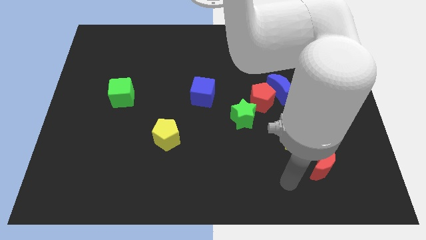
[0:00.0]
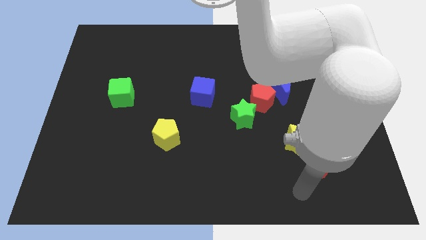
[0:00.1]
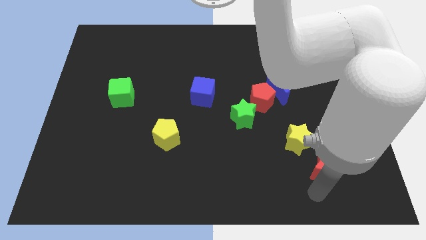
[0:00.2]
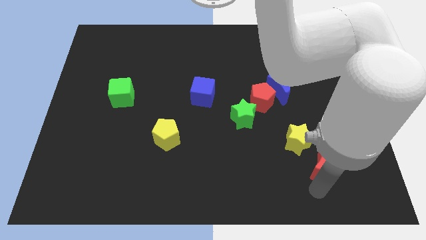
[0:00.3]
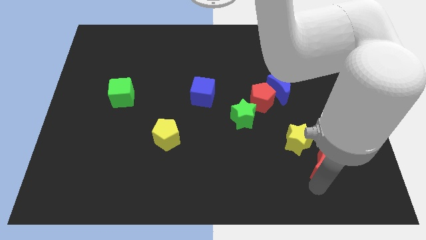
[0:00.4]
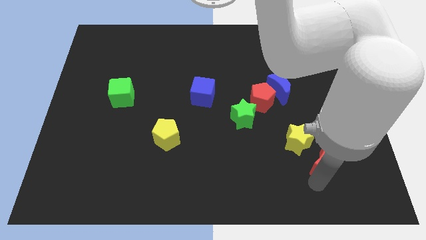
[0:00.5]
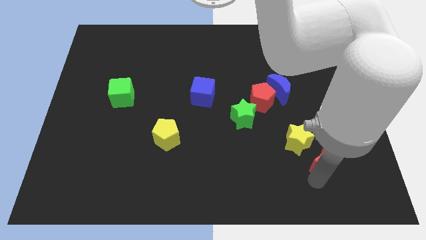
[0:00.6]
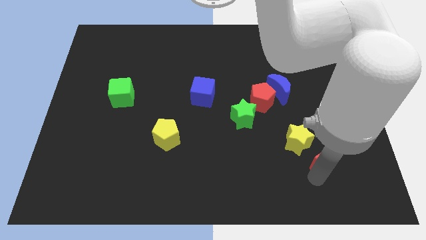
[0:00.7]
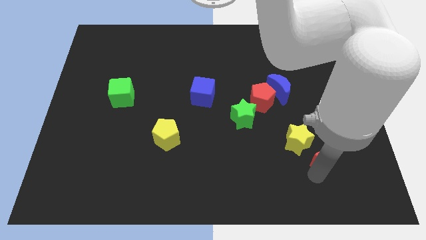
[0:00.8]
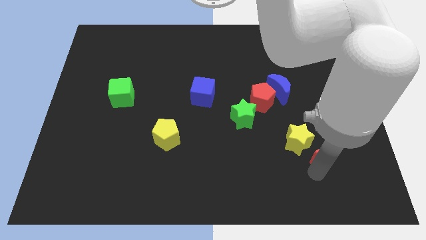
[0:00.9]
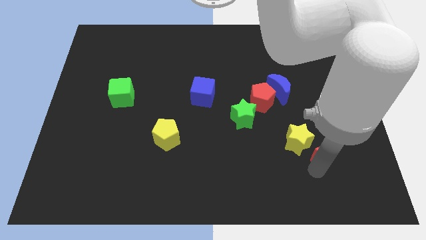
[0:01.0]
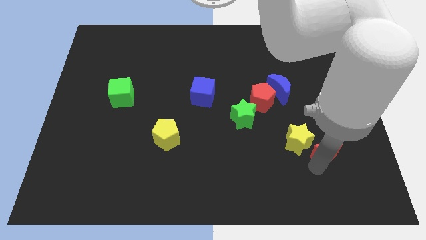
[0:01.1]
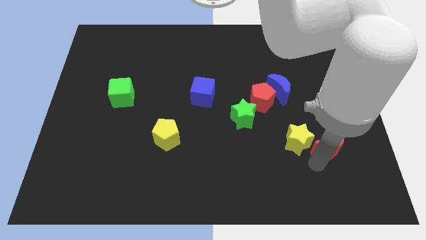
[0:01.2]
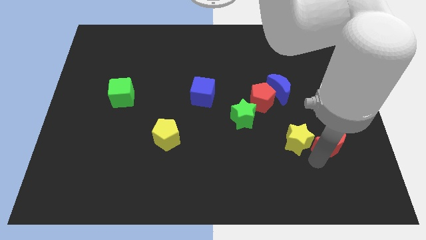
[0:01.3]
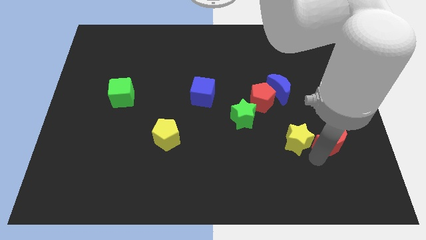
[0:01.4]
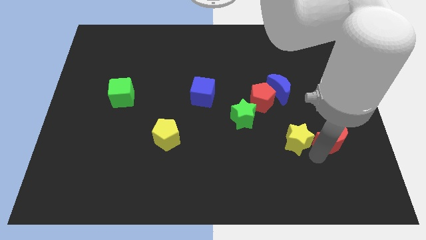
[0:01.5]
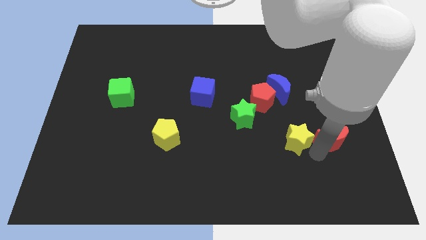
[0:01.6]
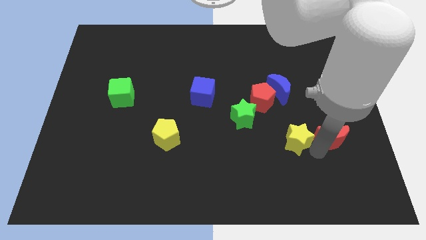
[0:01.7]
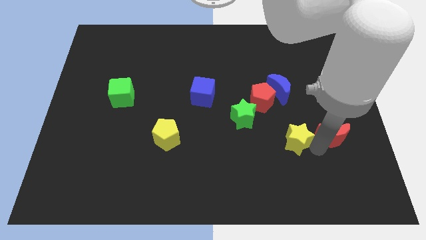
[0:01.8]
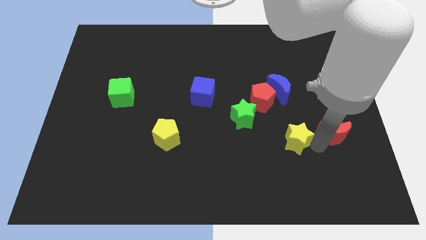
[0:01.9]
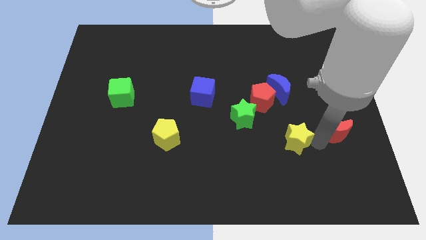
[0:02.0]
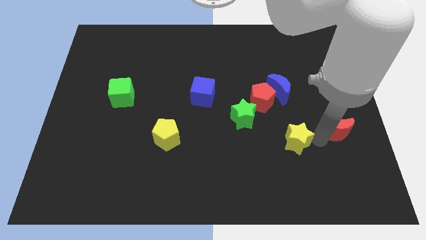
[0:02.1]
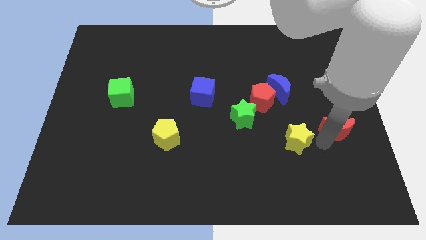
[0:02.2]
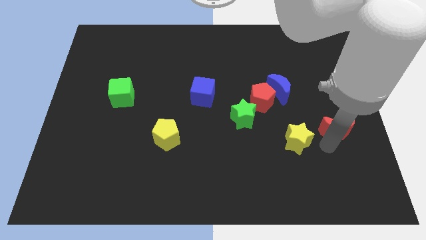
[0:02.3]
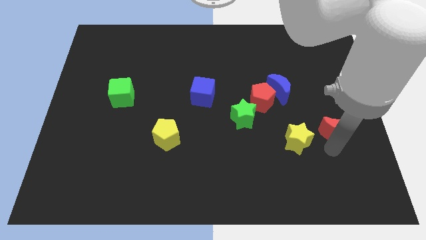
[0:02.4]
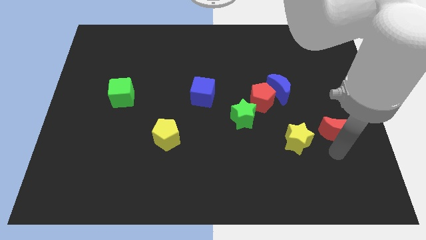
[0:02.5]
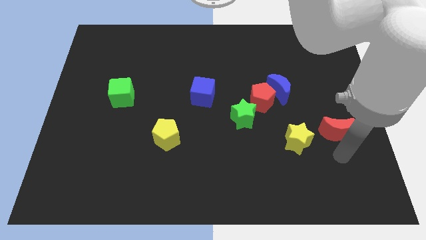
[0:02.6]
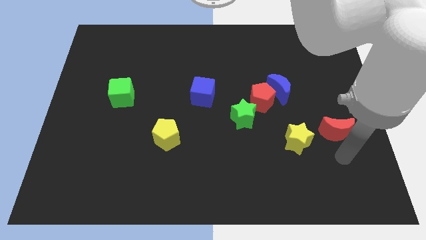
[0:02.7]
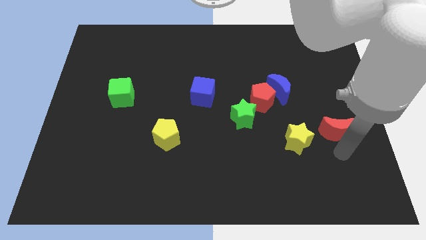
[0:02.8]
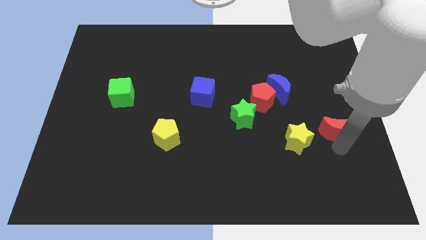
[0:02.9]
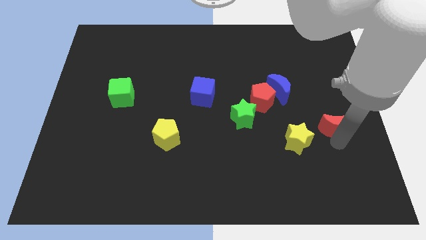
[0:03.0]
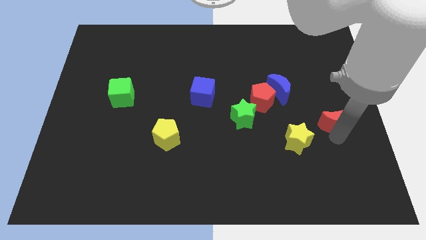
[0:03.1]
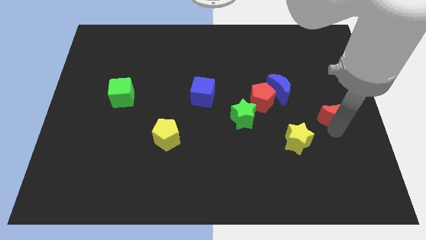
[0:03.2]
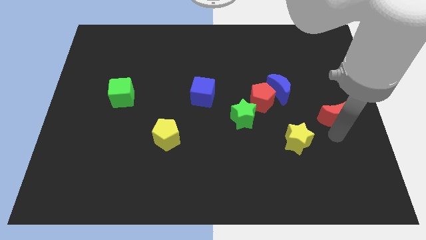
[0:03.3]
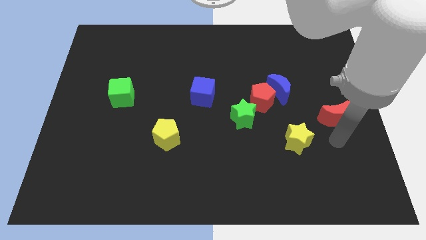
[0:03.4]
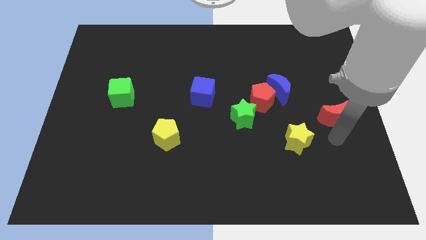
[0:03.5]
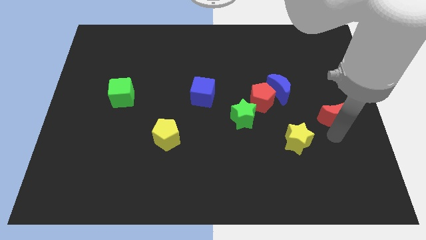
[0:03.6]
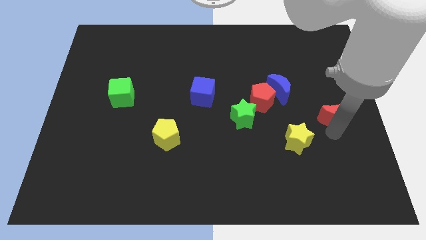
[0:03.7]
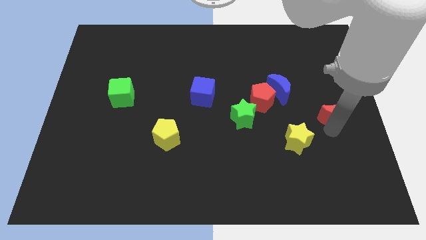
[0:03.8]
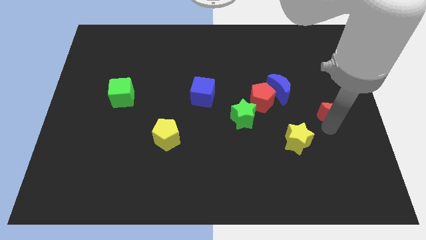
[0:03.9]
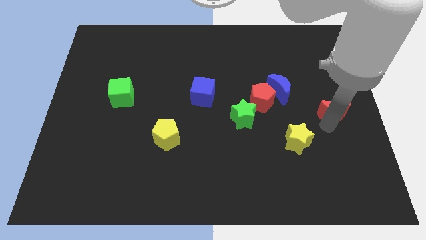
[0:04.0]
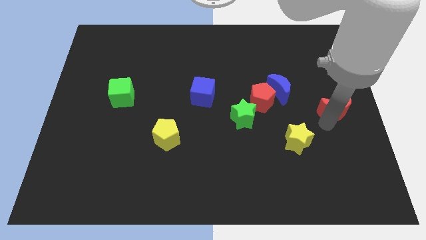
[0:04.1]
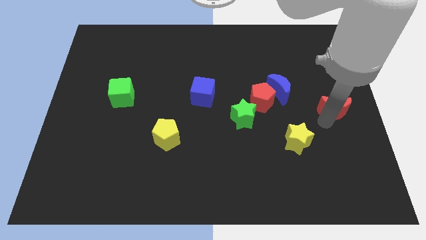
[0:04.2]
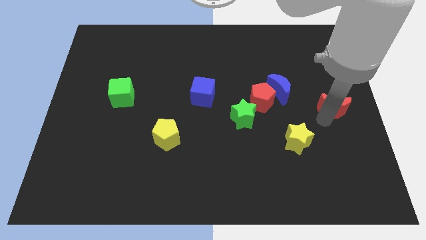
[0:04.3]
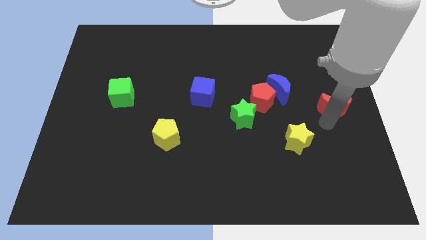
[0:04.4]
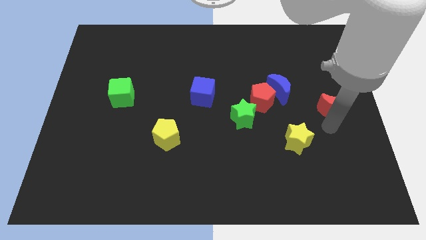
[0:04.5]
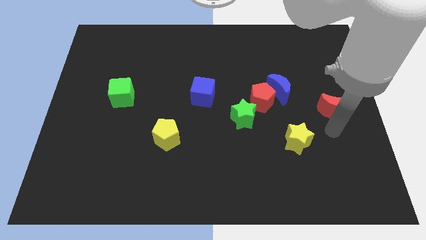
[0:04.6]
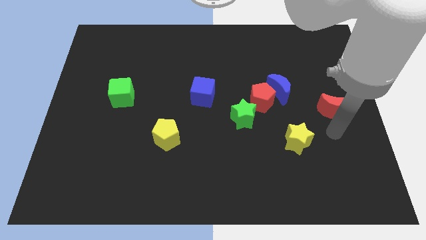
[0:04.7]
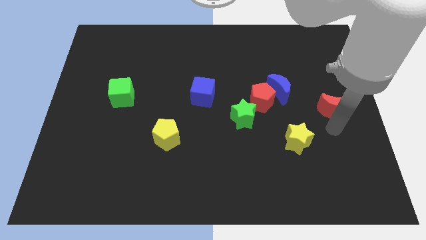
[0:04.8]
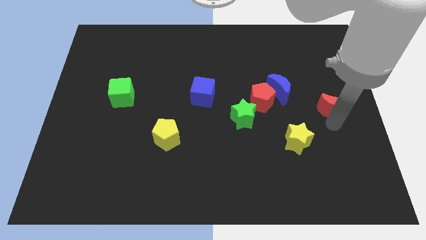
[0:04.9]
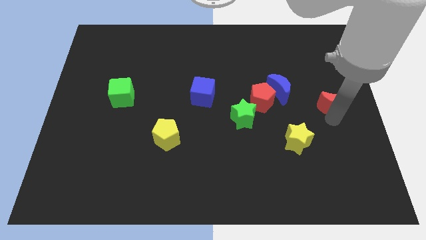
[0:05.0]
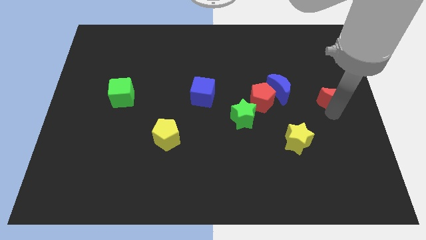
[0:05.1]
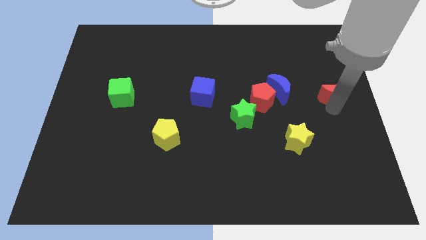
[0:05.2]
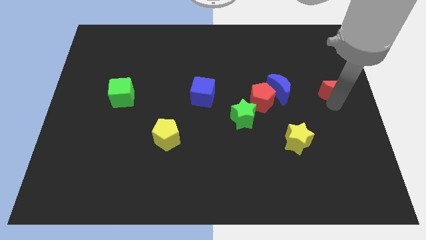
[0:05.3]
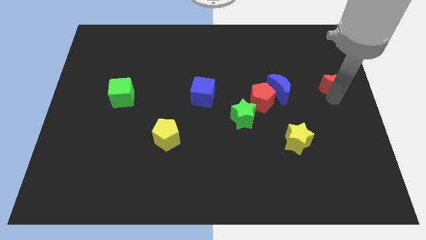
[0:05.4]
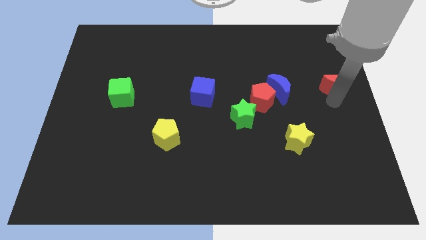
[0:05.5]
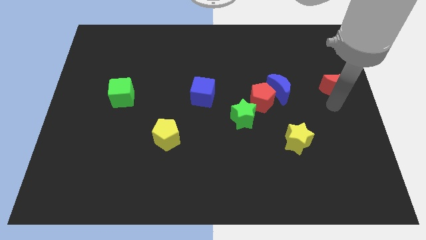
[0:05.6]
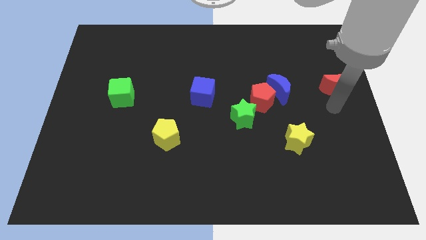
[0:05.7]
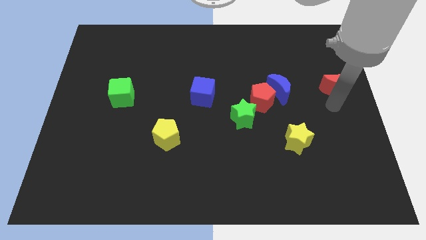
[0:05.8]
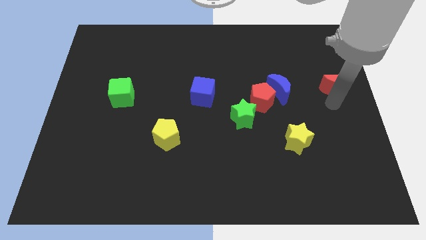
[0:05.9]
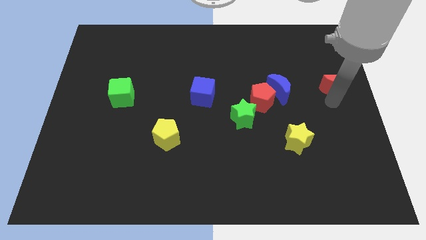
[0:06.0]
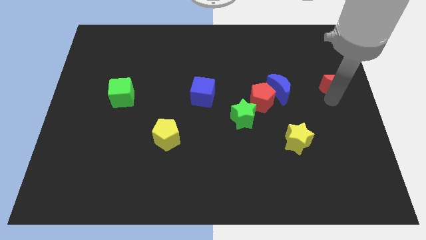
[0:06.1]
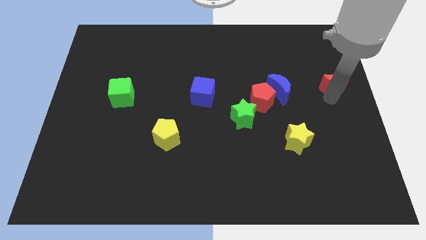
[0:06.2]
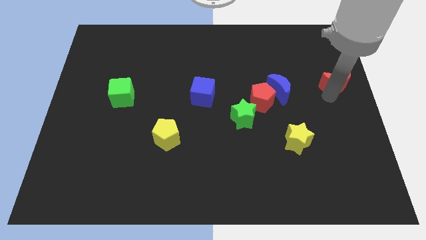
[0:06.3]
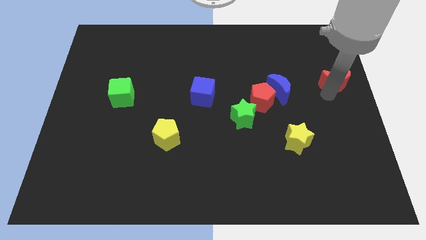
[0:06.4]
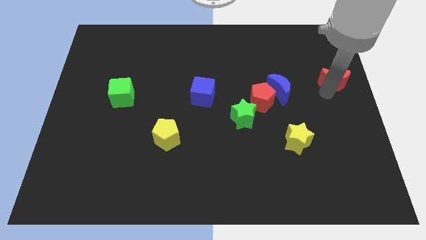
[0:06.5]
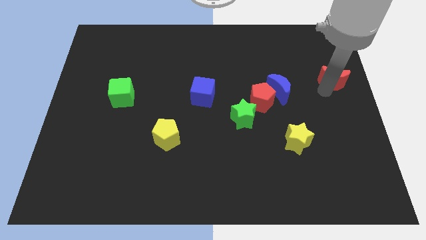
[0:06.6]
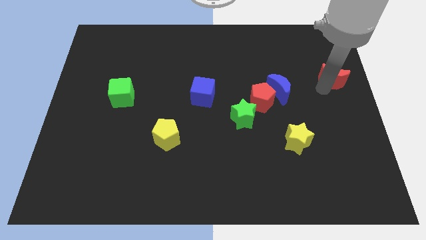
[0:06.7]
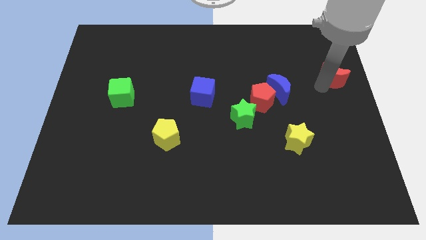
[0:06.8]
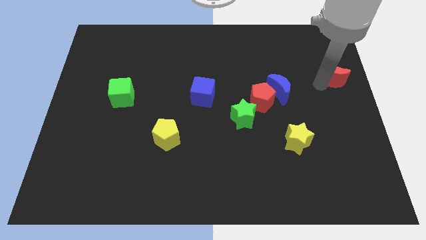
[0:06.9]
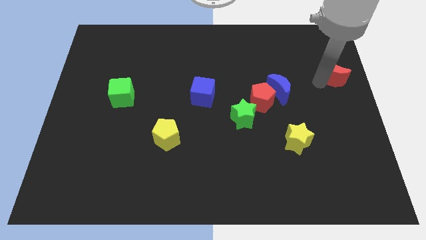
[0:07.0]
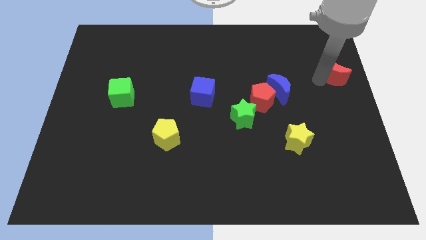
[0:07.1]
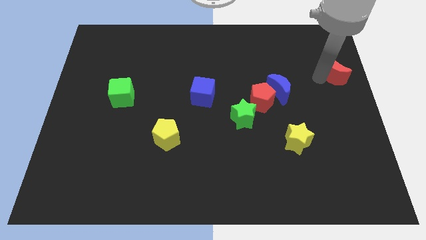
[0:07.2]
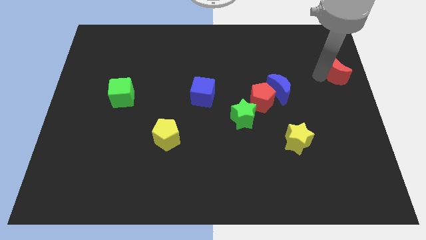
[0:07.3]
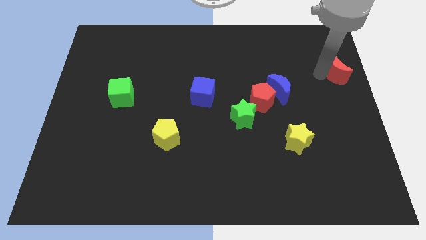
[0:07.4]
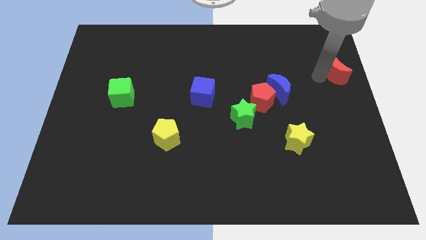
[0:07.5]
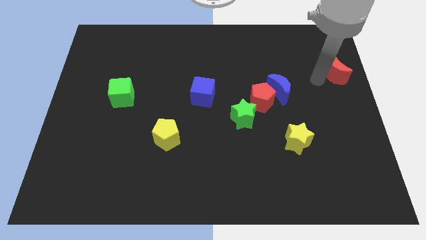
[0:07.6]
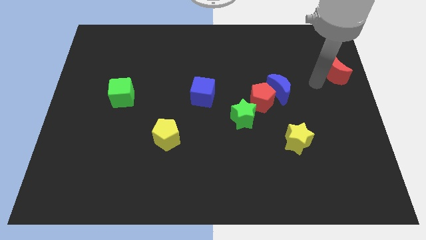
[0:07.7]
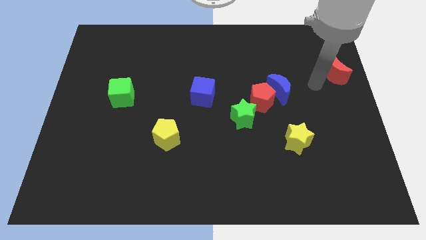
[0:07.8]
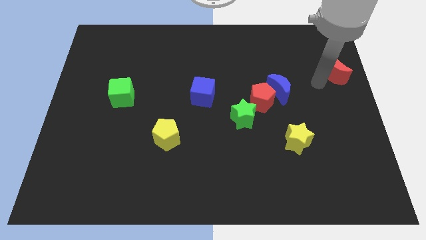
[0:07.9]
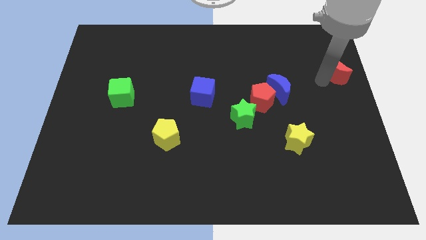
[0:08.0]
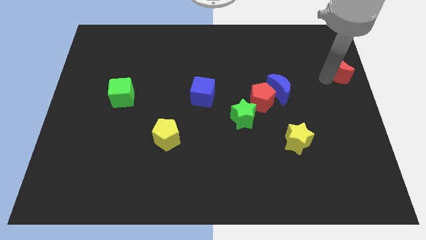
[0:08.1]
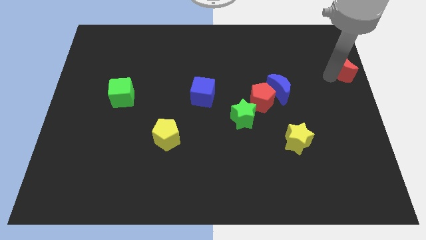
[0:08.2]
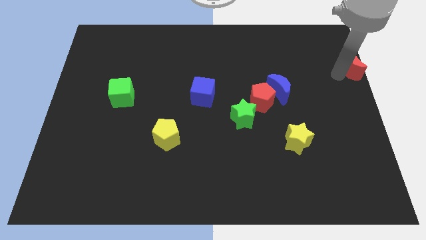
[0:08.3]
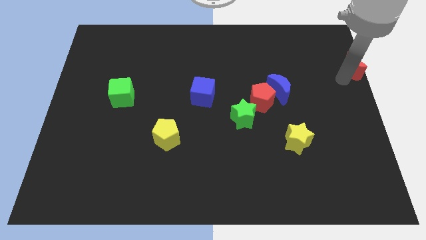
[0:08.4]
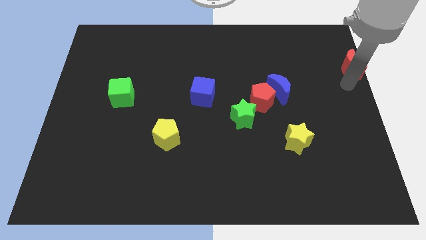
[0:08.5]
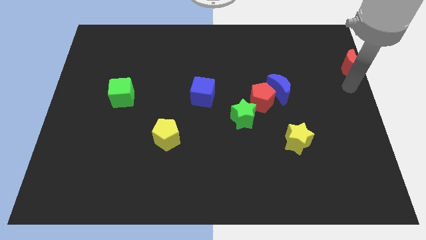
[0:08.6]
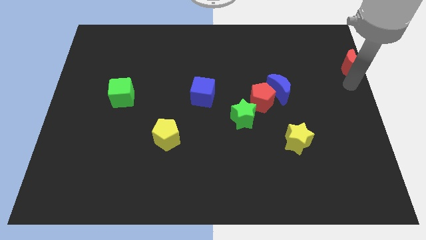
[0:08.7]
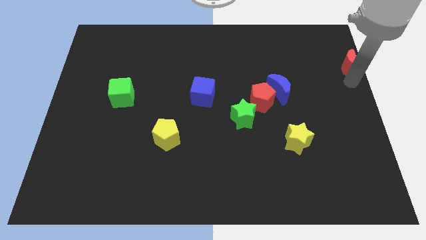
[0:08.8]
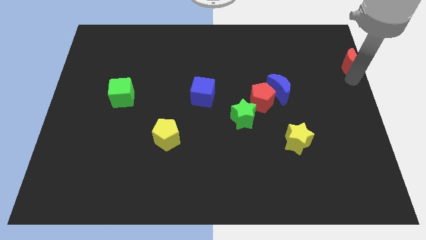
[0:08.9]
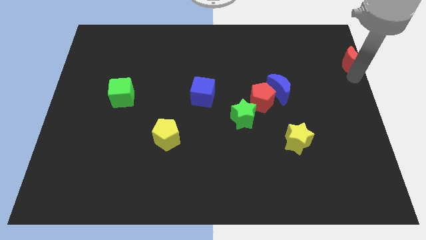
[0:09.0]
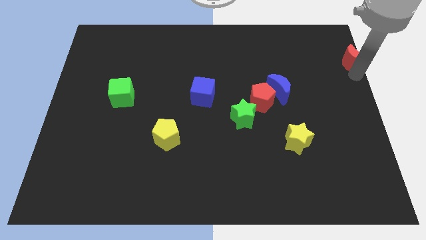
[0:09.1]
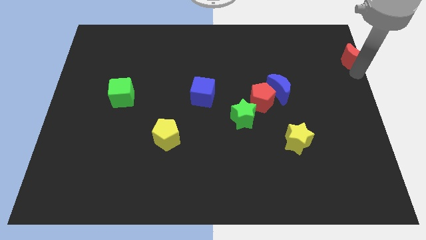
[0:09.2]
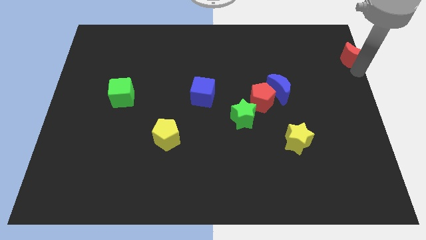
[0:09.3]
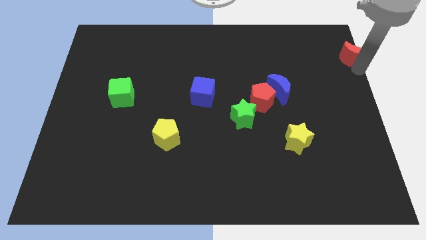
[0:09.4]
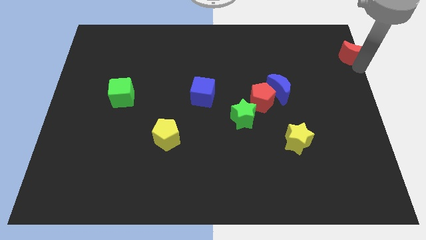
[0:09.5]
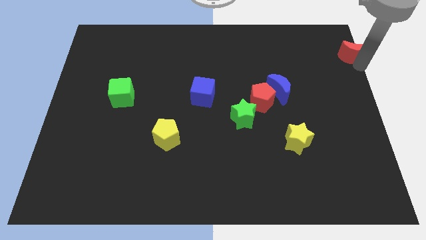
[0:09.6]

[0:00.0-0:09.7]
put the red moon to the upper right corner
